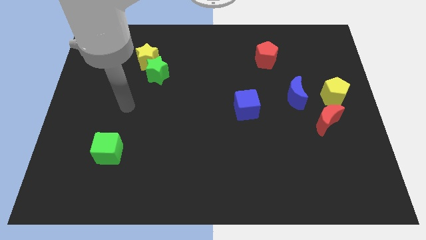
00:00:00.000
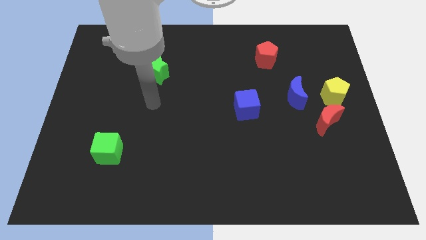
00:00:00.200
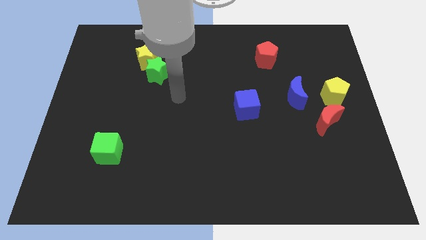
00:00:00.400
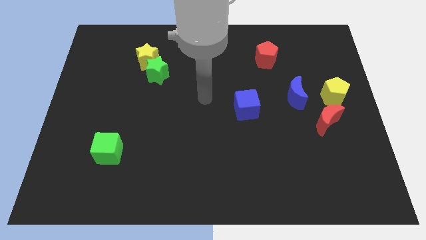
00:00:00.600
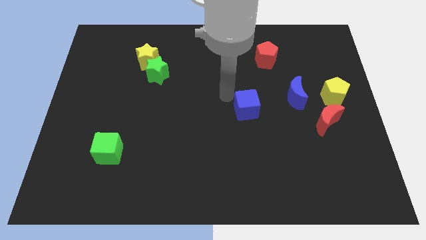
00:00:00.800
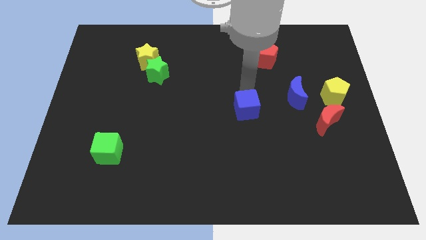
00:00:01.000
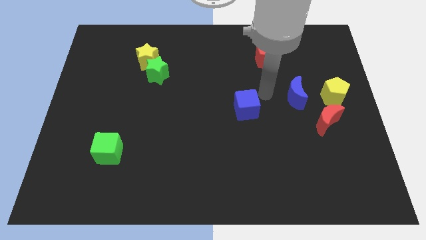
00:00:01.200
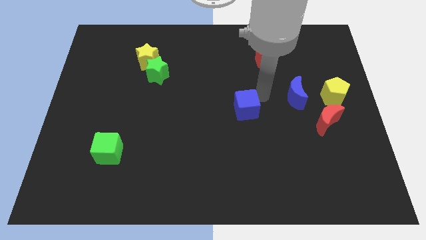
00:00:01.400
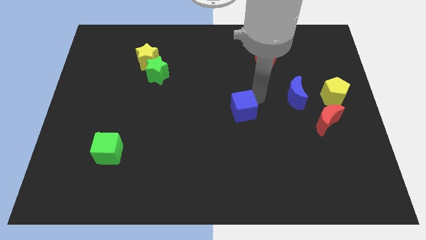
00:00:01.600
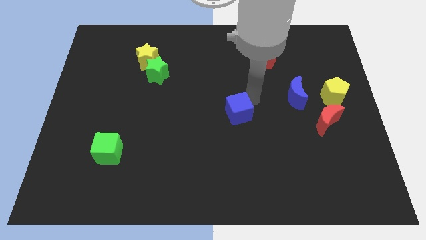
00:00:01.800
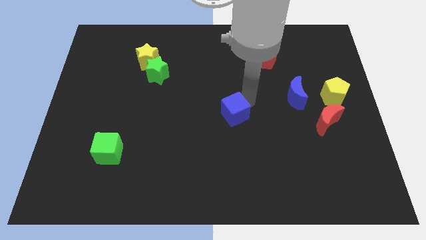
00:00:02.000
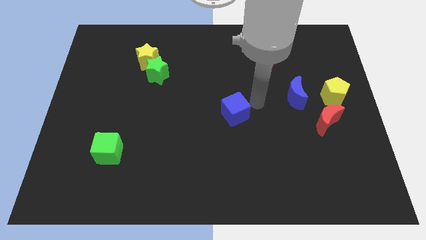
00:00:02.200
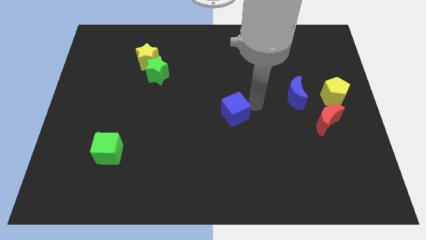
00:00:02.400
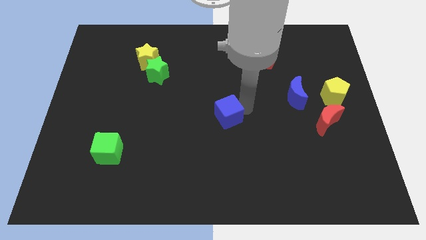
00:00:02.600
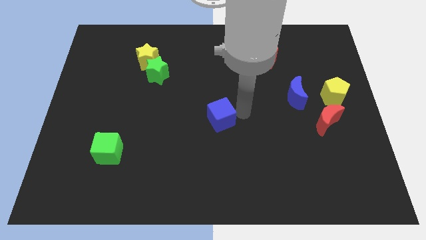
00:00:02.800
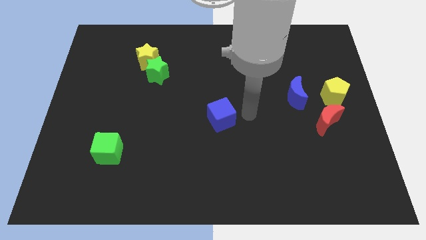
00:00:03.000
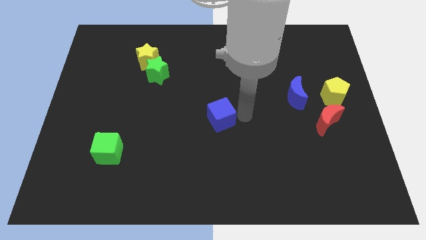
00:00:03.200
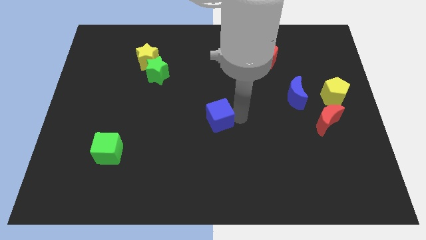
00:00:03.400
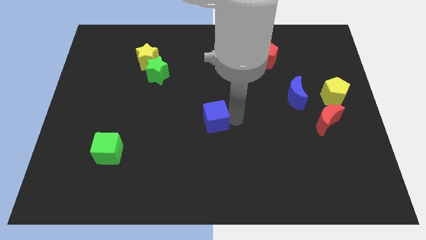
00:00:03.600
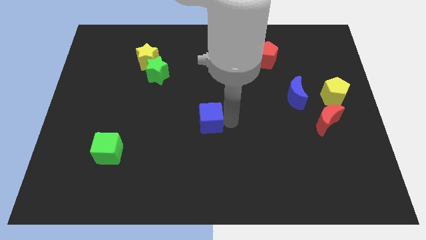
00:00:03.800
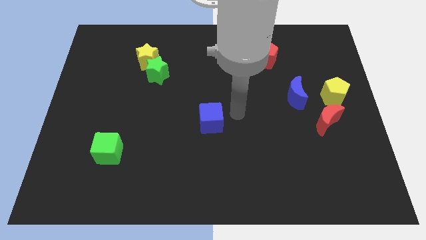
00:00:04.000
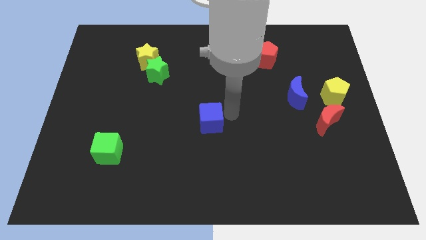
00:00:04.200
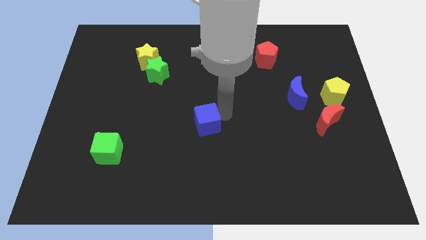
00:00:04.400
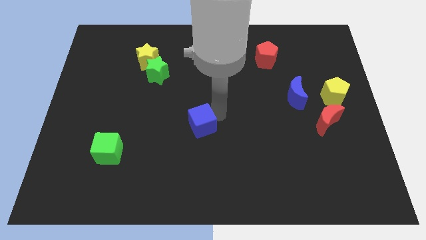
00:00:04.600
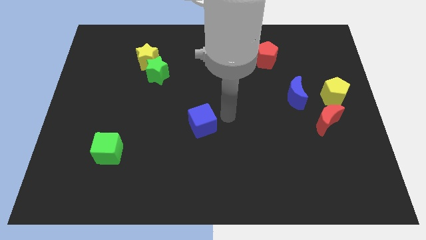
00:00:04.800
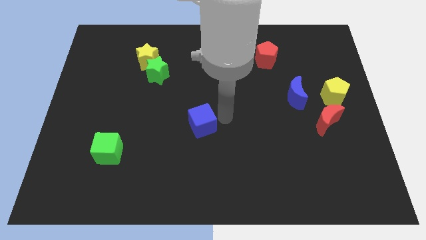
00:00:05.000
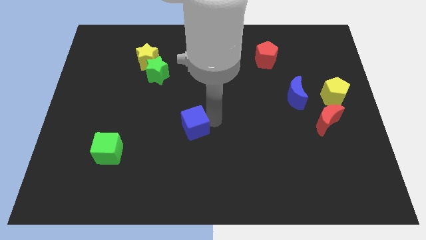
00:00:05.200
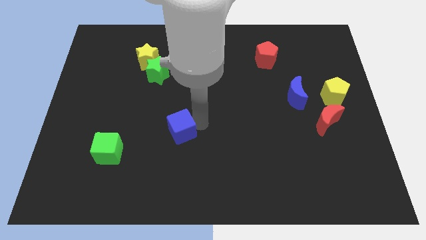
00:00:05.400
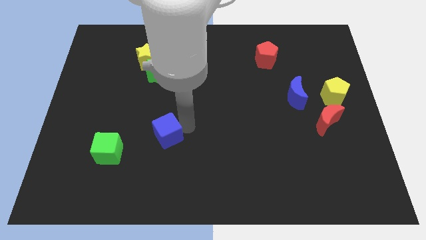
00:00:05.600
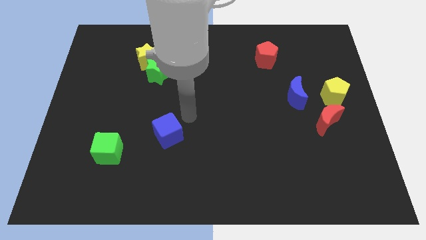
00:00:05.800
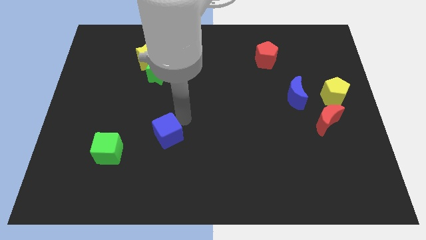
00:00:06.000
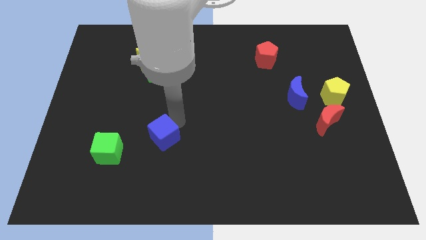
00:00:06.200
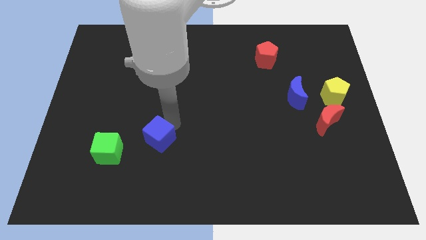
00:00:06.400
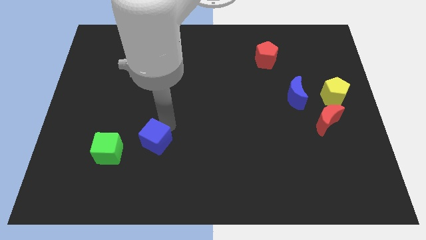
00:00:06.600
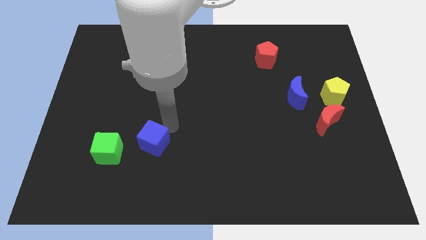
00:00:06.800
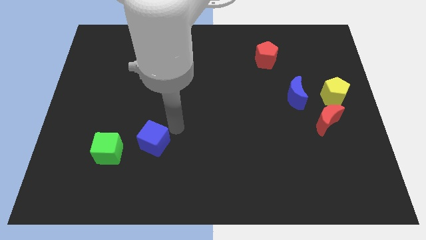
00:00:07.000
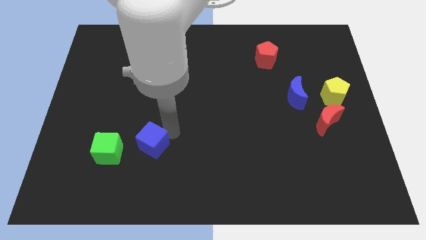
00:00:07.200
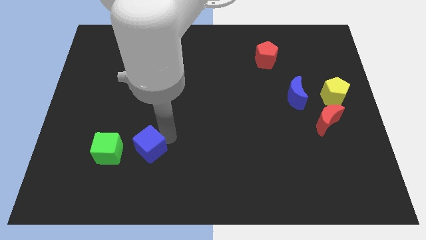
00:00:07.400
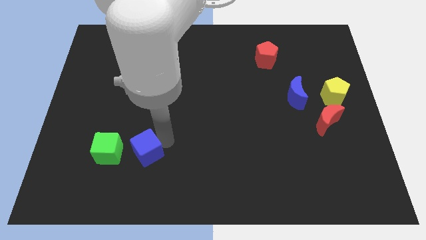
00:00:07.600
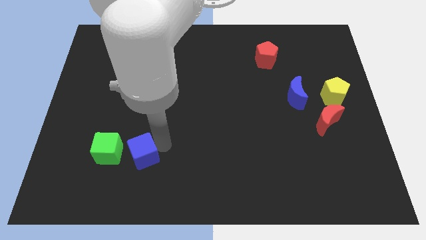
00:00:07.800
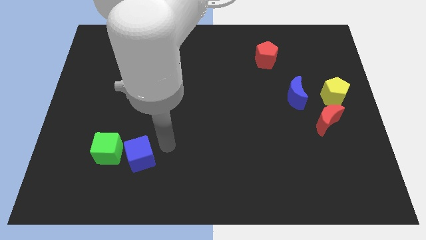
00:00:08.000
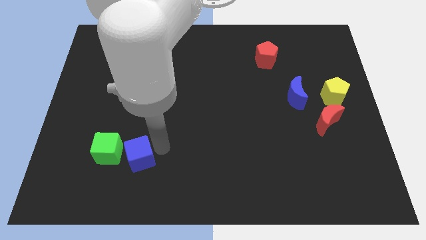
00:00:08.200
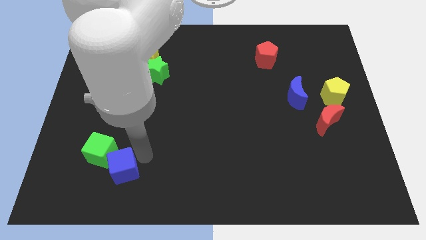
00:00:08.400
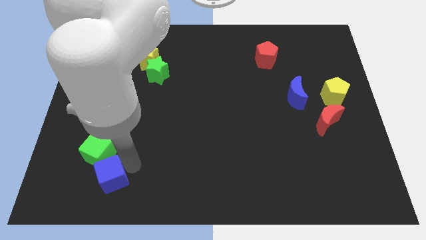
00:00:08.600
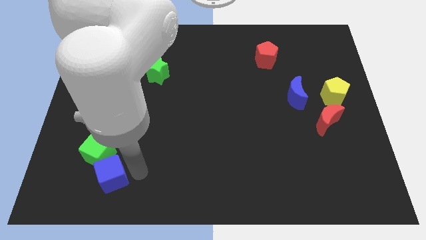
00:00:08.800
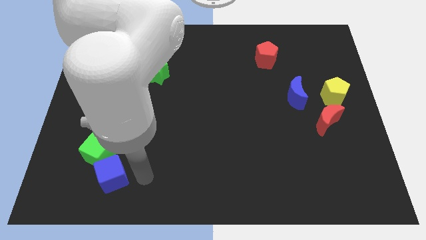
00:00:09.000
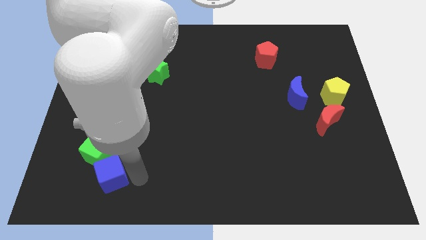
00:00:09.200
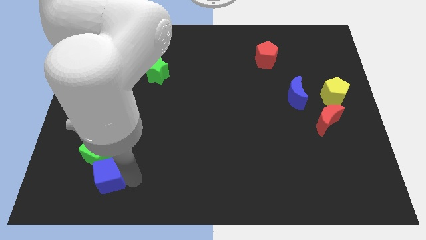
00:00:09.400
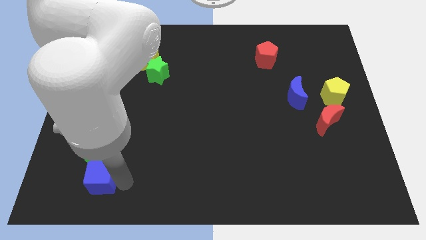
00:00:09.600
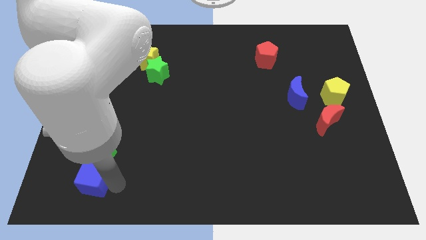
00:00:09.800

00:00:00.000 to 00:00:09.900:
slide the blue cube to the bottom left of the green cube

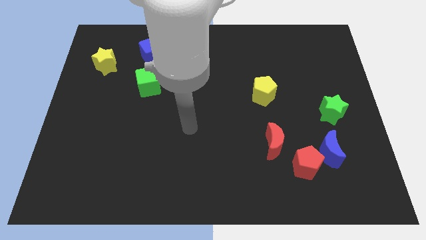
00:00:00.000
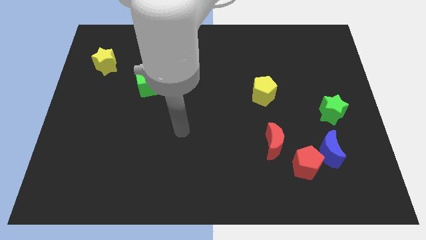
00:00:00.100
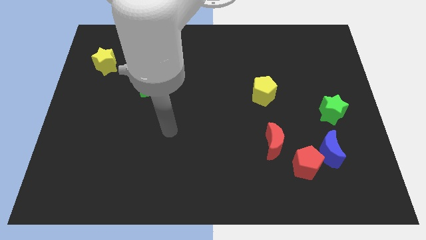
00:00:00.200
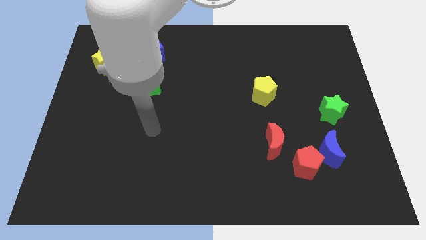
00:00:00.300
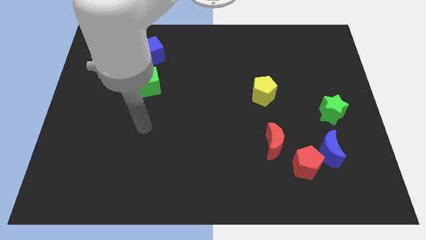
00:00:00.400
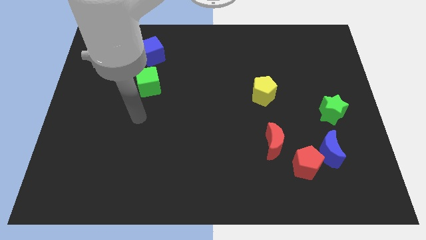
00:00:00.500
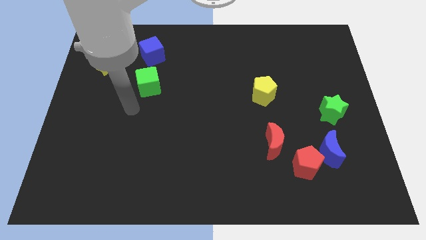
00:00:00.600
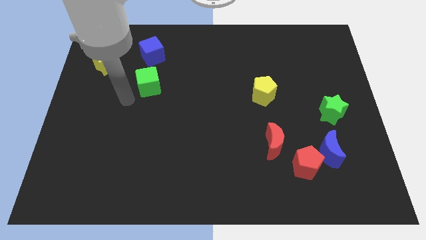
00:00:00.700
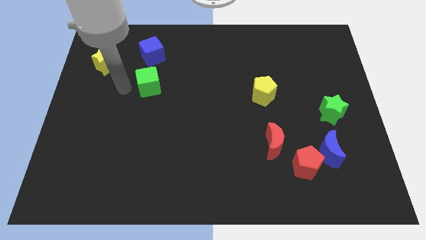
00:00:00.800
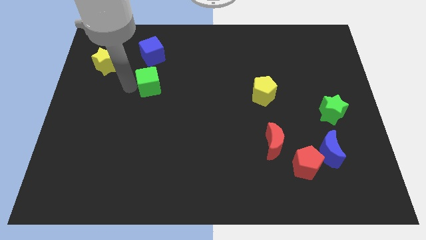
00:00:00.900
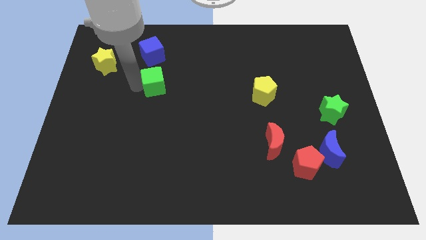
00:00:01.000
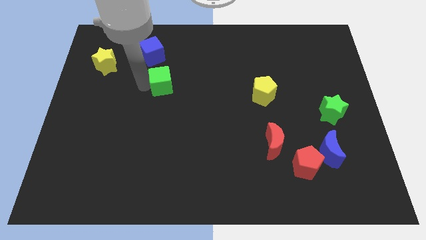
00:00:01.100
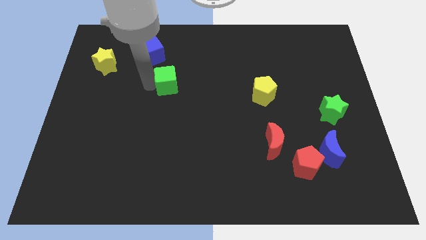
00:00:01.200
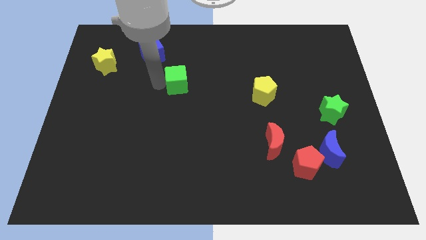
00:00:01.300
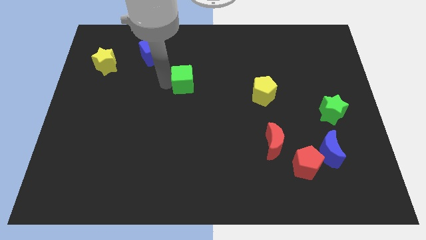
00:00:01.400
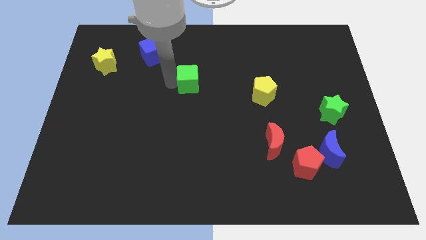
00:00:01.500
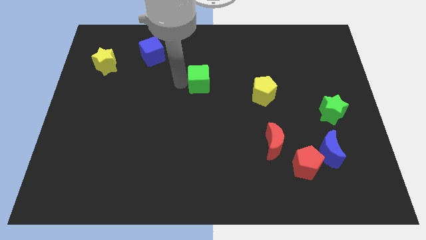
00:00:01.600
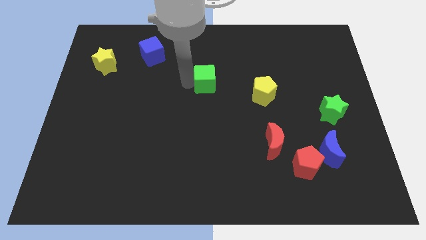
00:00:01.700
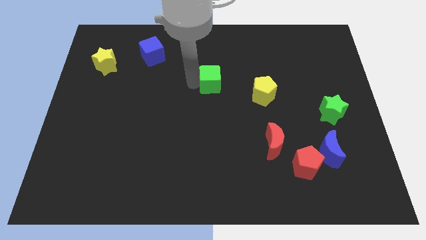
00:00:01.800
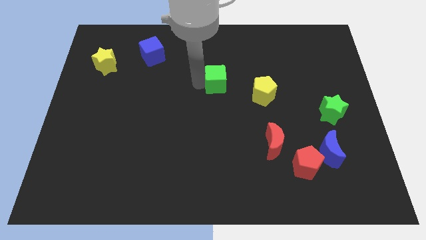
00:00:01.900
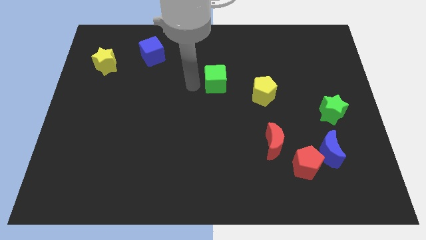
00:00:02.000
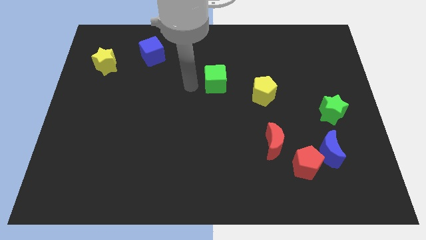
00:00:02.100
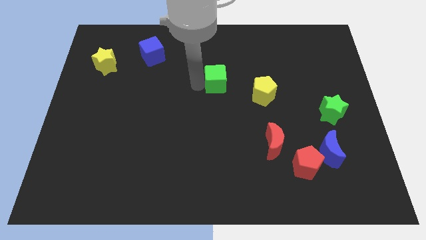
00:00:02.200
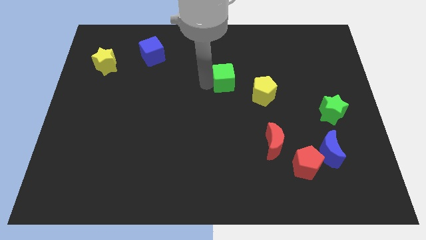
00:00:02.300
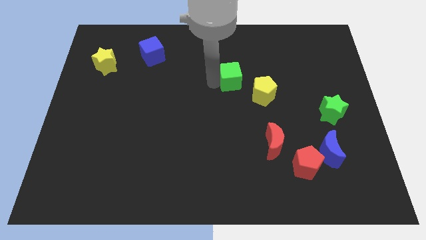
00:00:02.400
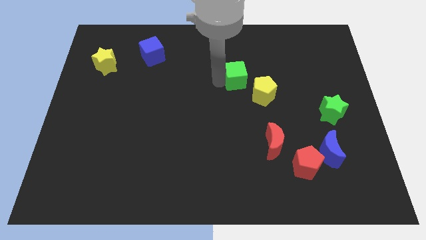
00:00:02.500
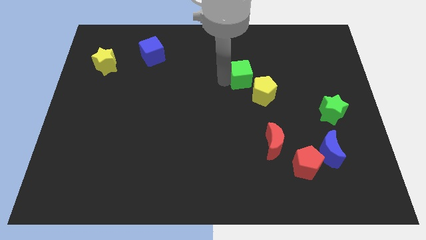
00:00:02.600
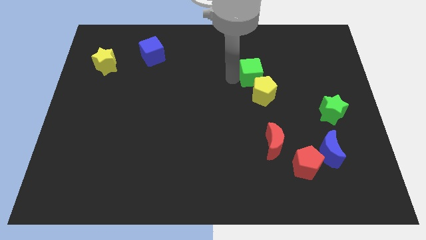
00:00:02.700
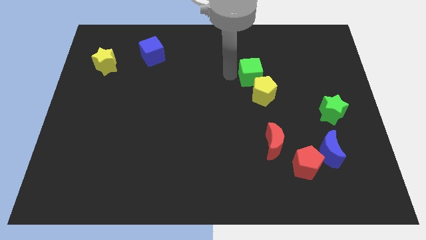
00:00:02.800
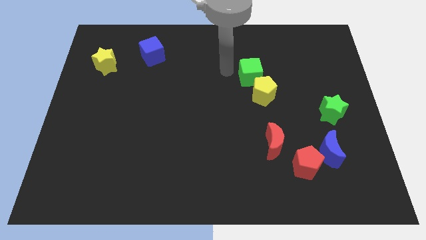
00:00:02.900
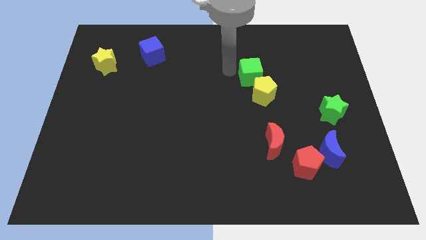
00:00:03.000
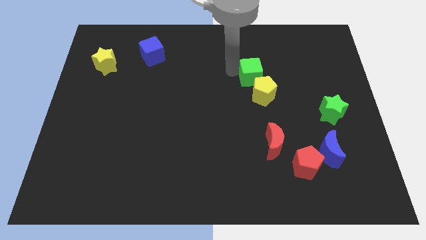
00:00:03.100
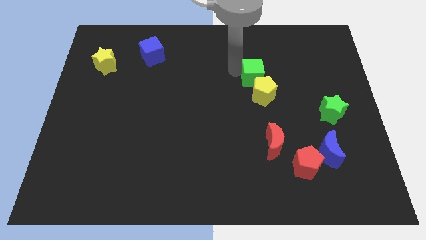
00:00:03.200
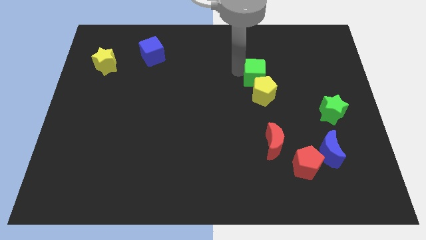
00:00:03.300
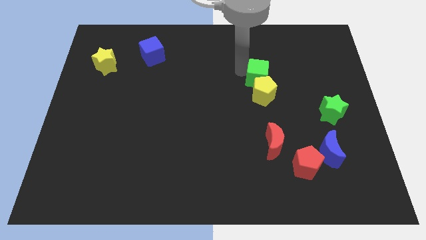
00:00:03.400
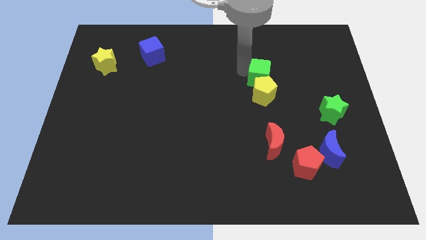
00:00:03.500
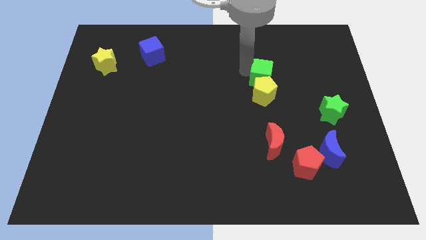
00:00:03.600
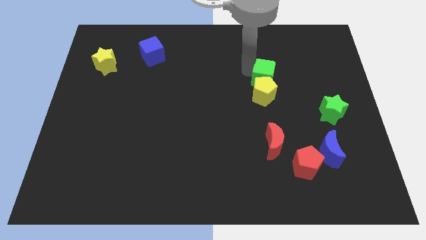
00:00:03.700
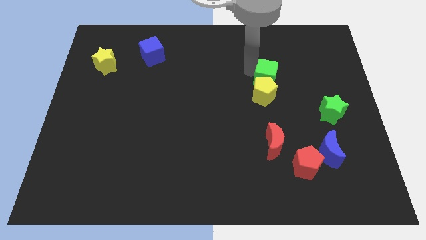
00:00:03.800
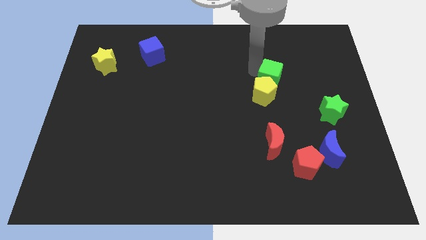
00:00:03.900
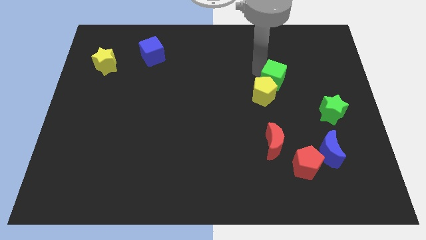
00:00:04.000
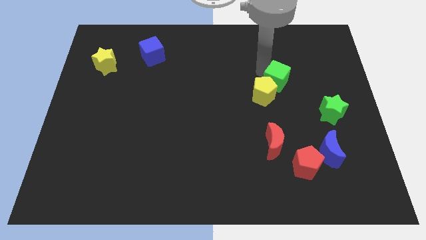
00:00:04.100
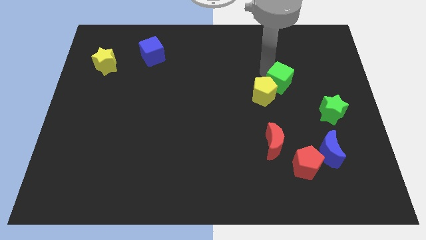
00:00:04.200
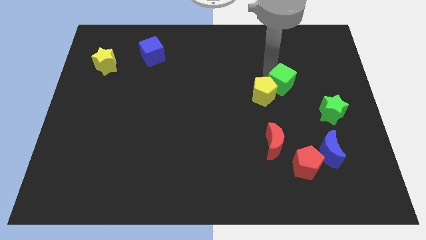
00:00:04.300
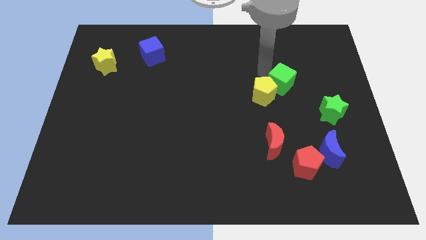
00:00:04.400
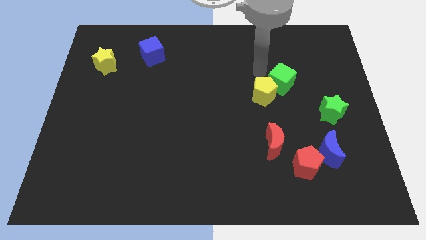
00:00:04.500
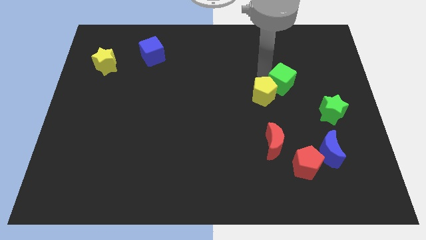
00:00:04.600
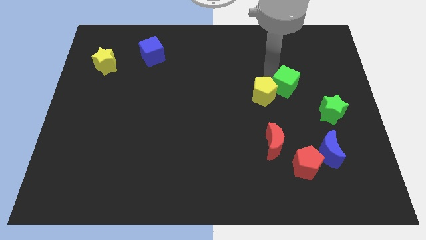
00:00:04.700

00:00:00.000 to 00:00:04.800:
push the green cube to the top left of the green star
